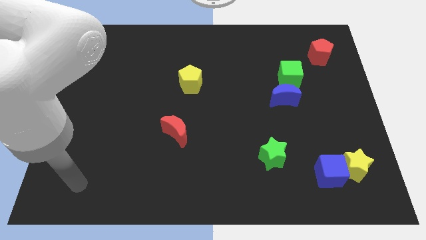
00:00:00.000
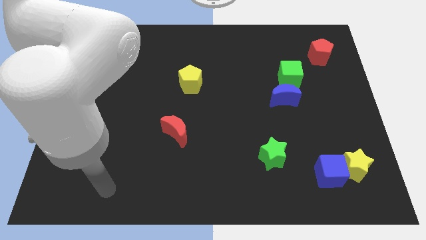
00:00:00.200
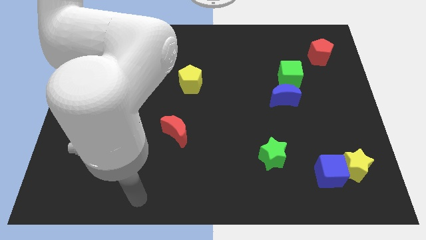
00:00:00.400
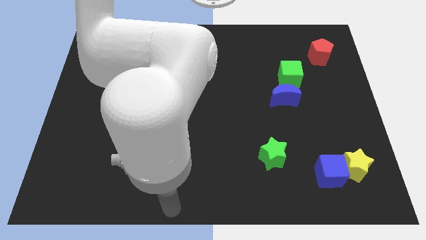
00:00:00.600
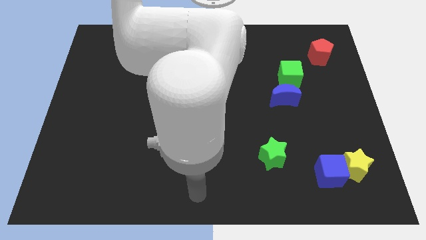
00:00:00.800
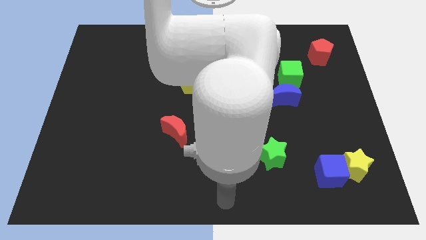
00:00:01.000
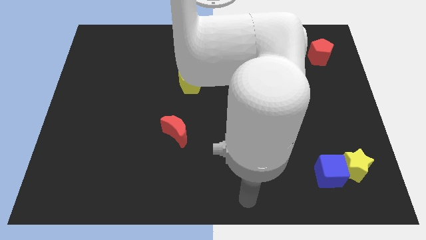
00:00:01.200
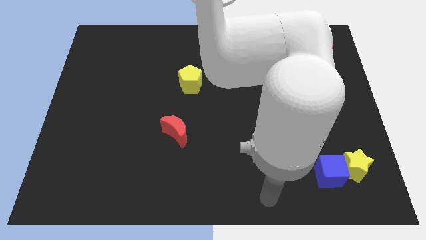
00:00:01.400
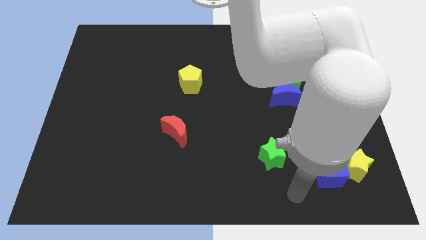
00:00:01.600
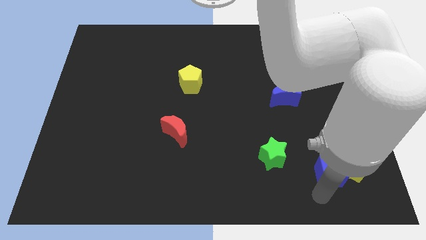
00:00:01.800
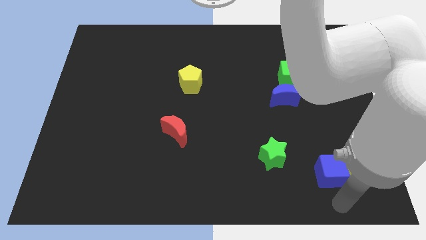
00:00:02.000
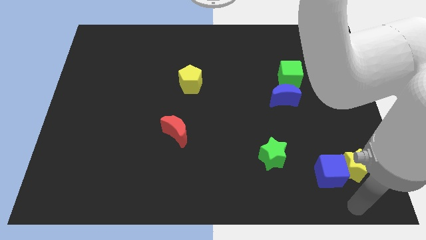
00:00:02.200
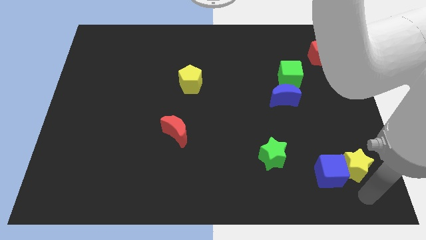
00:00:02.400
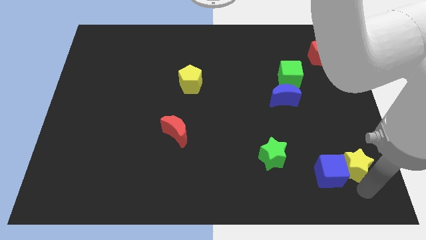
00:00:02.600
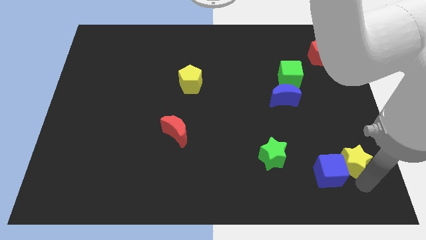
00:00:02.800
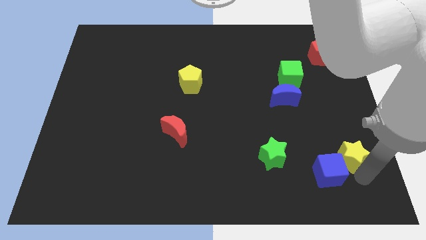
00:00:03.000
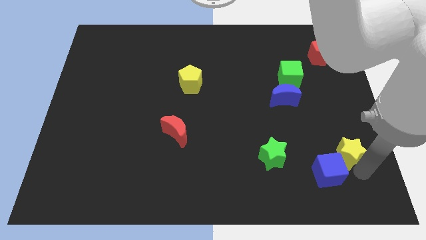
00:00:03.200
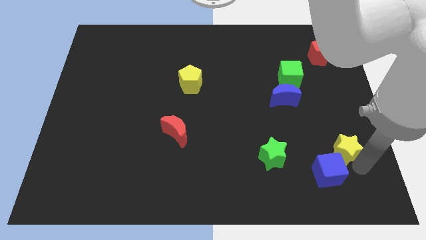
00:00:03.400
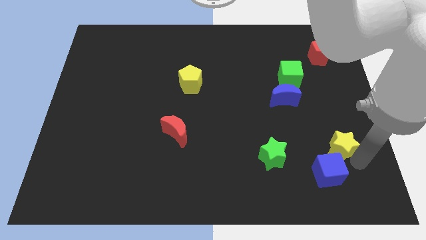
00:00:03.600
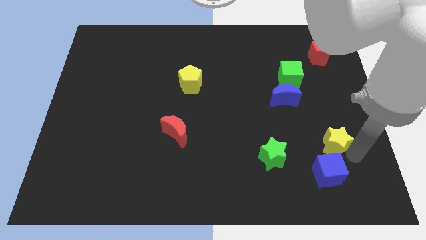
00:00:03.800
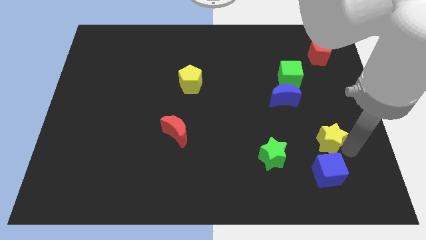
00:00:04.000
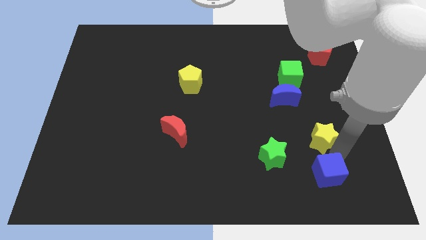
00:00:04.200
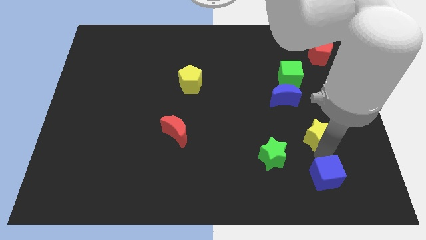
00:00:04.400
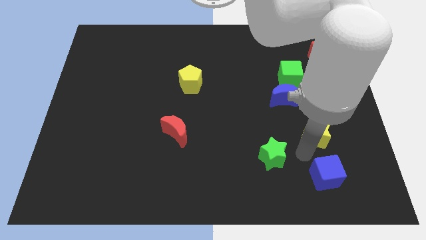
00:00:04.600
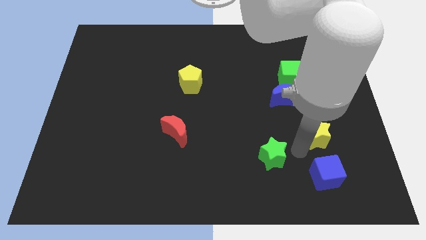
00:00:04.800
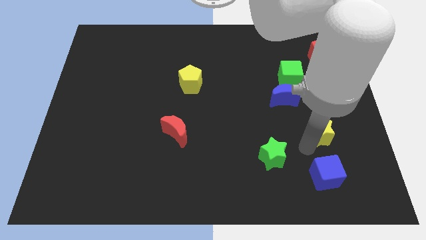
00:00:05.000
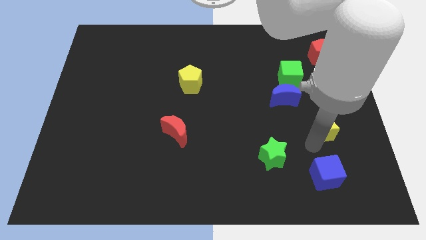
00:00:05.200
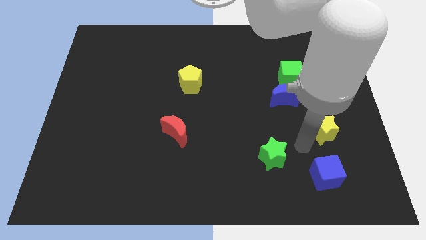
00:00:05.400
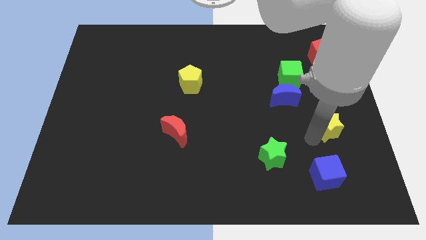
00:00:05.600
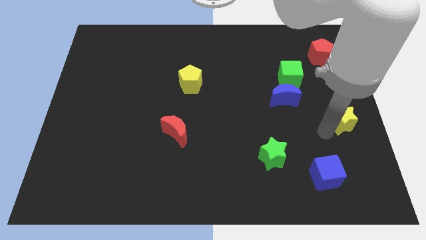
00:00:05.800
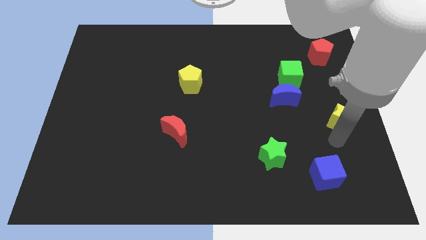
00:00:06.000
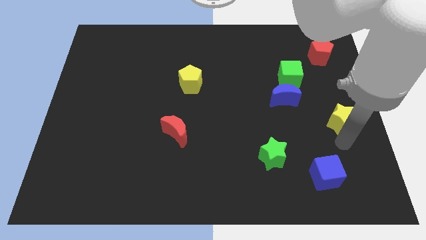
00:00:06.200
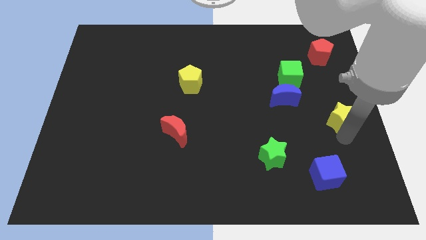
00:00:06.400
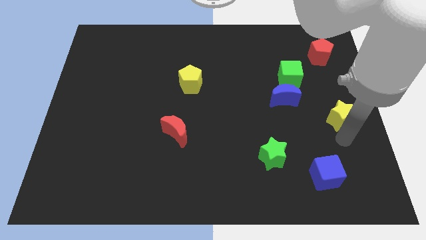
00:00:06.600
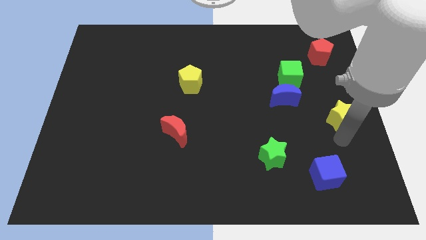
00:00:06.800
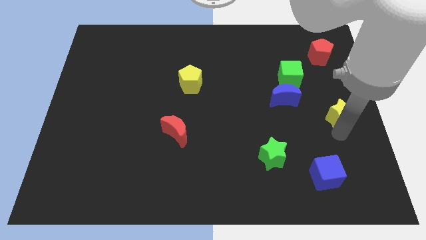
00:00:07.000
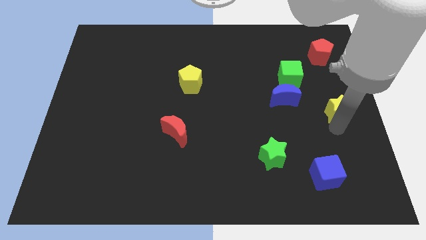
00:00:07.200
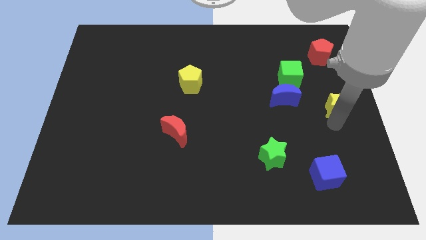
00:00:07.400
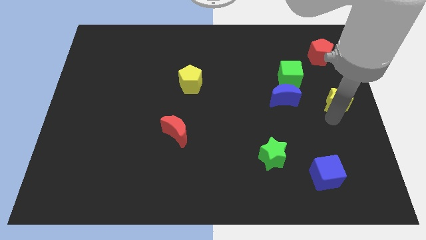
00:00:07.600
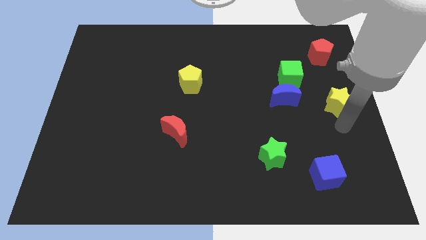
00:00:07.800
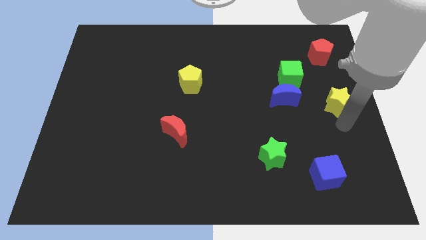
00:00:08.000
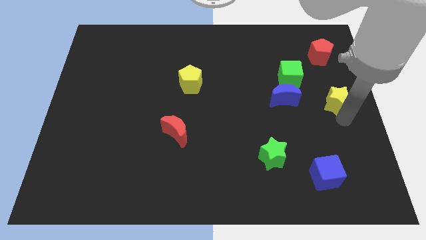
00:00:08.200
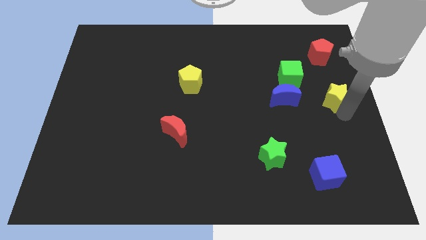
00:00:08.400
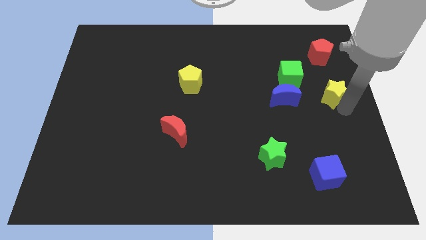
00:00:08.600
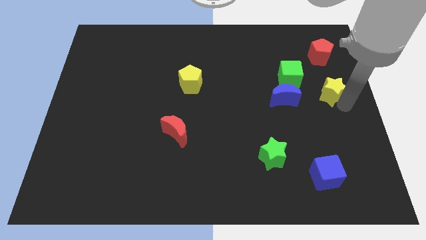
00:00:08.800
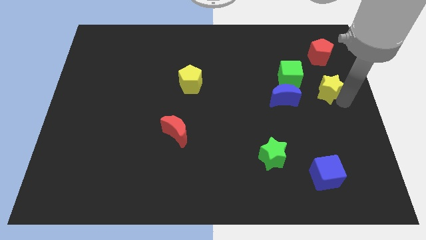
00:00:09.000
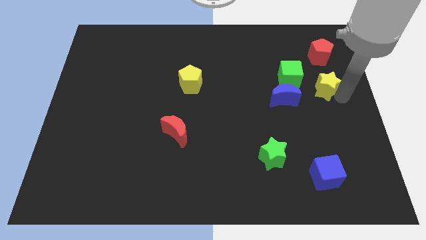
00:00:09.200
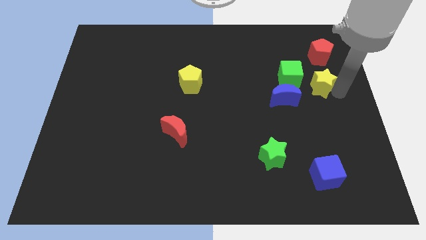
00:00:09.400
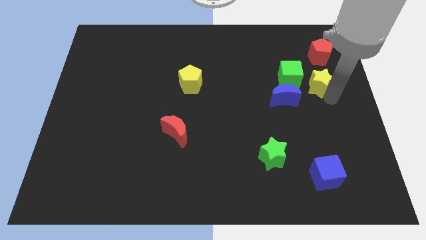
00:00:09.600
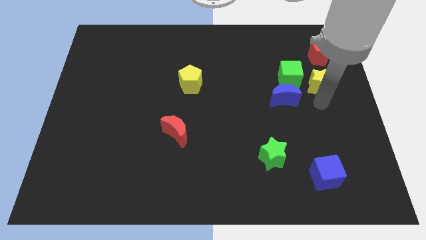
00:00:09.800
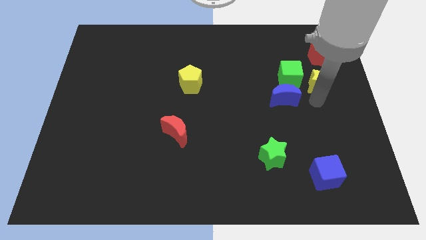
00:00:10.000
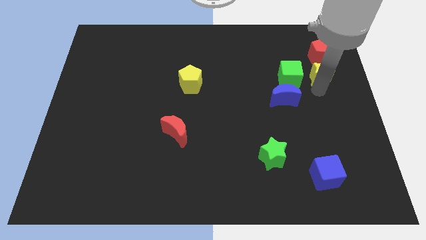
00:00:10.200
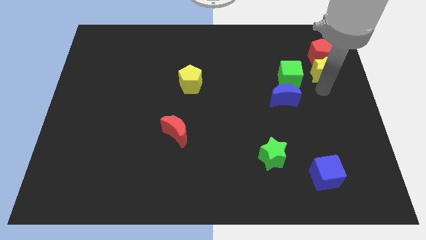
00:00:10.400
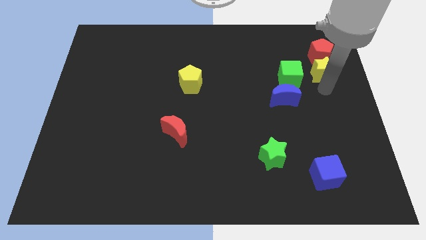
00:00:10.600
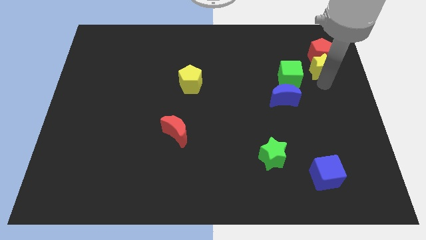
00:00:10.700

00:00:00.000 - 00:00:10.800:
put the yellow star close to the red pentagon

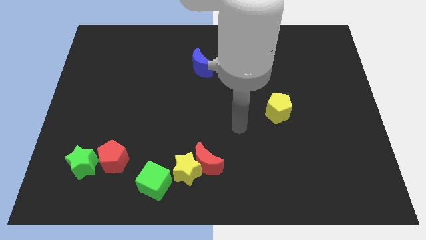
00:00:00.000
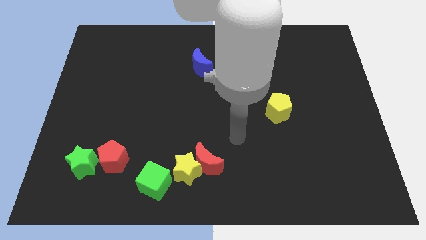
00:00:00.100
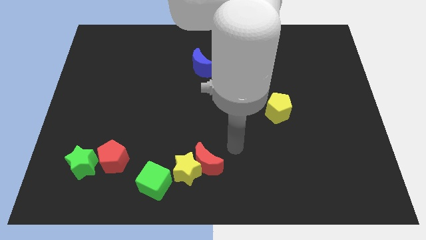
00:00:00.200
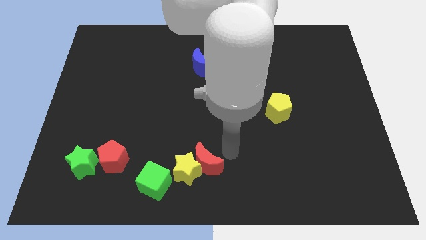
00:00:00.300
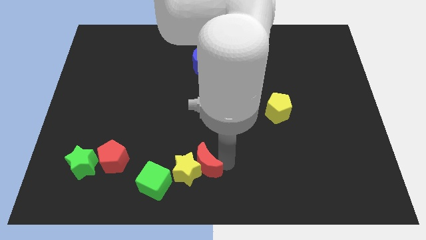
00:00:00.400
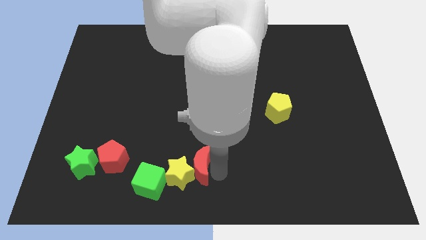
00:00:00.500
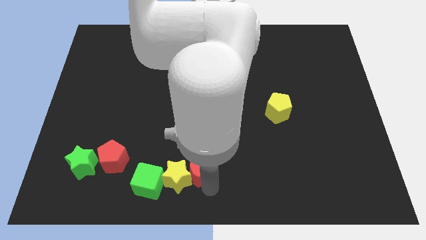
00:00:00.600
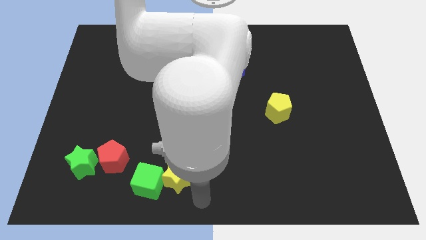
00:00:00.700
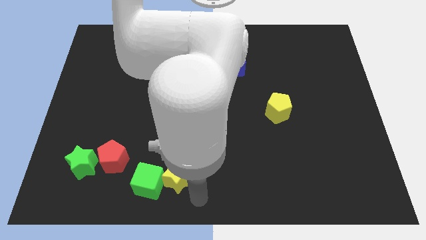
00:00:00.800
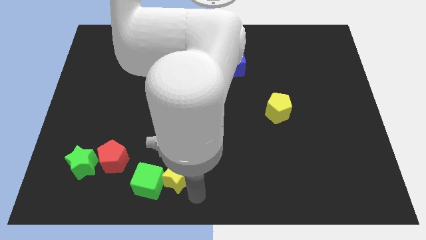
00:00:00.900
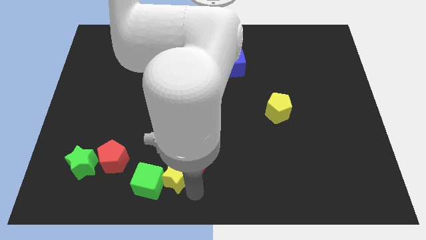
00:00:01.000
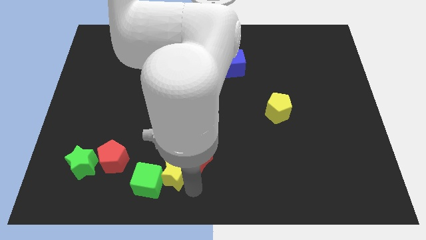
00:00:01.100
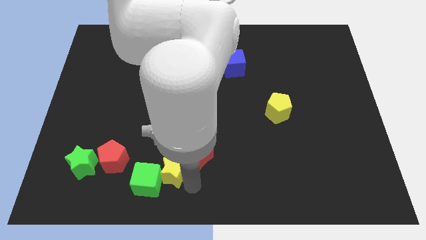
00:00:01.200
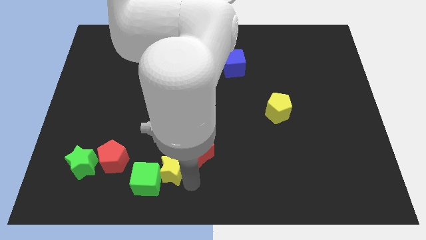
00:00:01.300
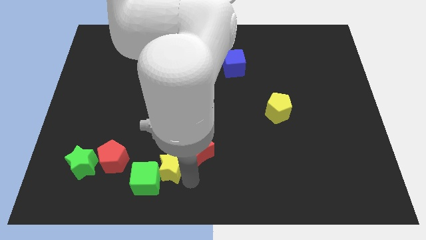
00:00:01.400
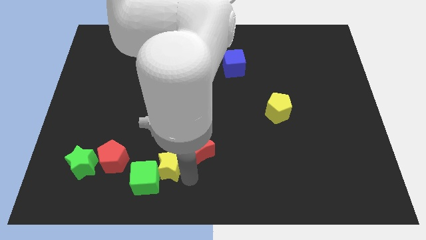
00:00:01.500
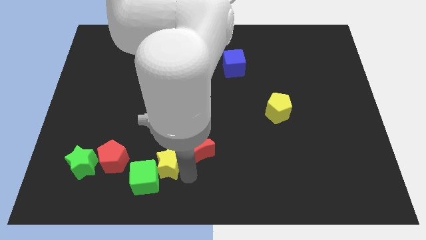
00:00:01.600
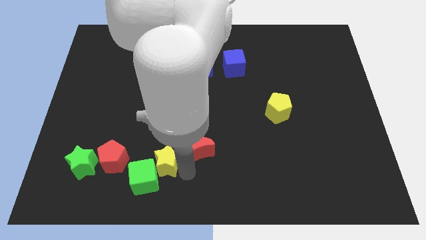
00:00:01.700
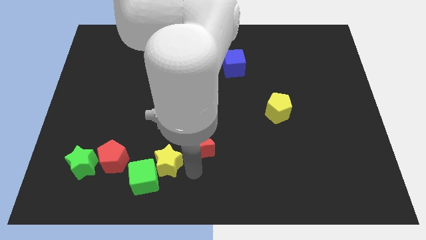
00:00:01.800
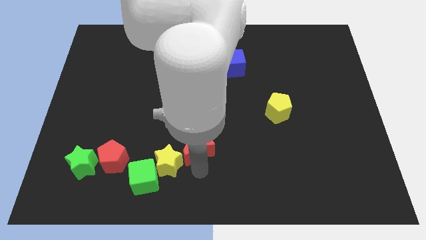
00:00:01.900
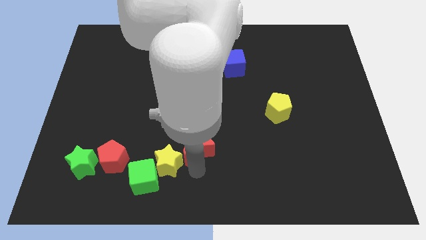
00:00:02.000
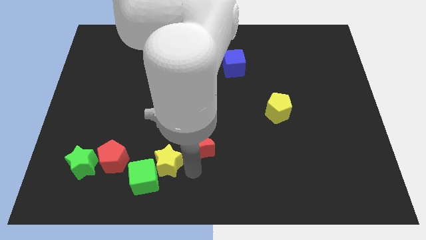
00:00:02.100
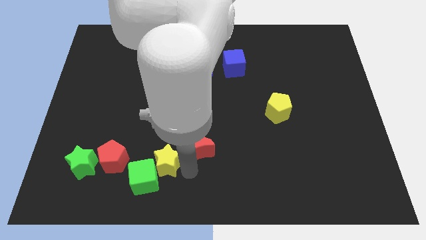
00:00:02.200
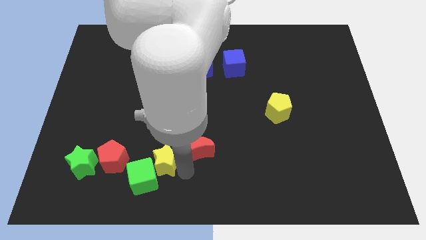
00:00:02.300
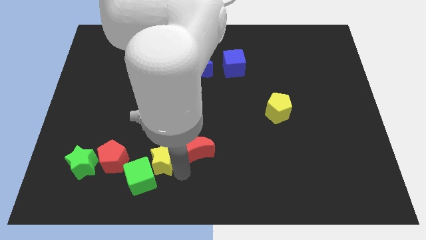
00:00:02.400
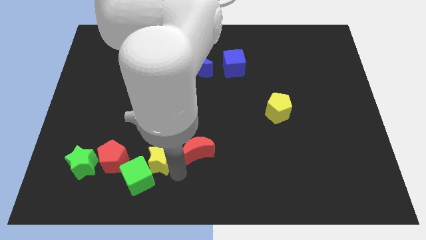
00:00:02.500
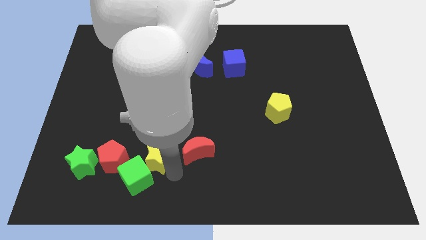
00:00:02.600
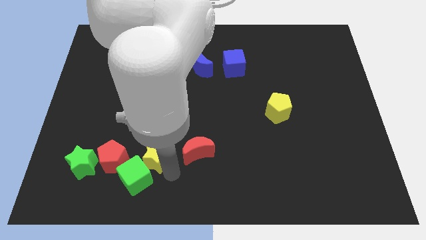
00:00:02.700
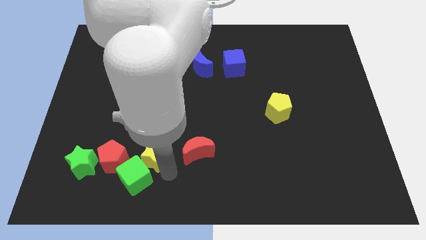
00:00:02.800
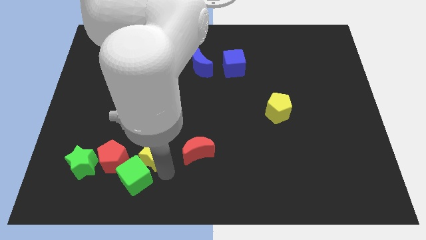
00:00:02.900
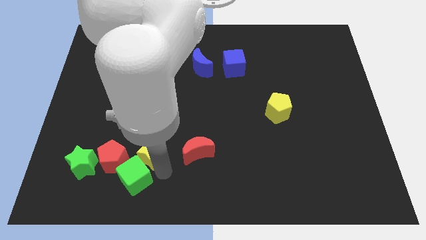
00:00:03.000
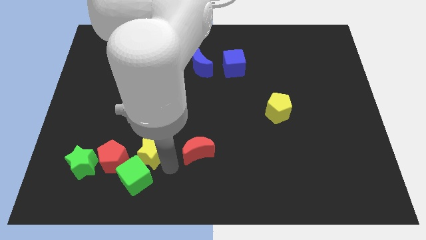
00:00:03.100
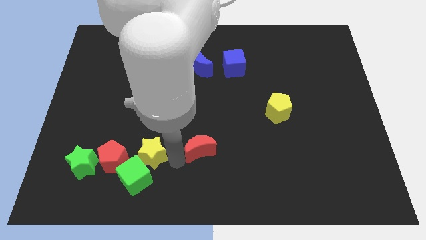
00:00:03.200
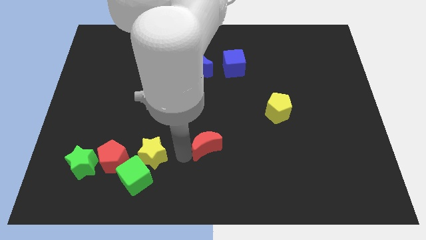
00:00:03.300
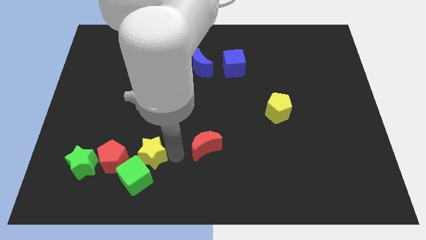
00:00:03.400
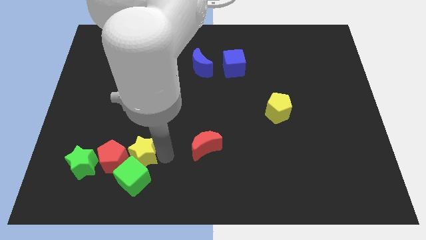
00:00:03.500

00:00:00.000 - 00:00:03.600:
slide the yellow star to the red pentagon
